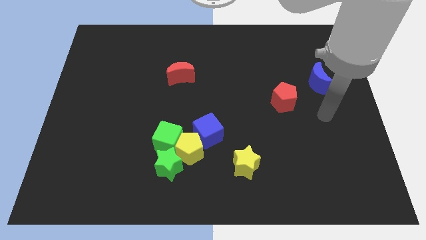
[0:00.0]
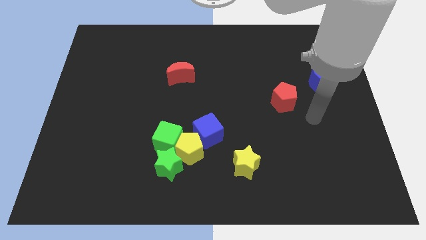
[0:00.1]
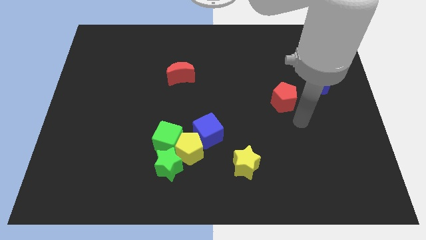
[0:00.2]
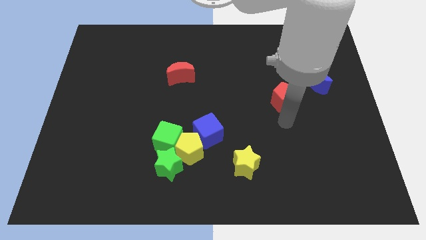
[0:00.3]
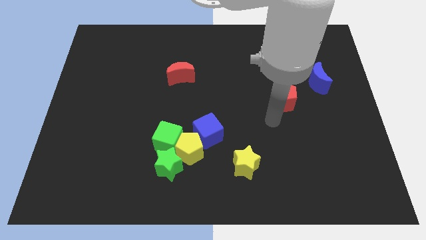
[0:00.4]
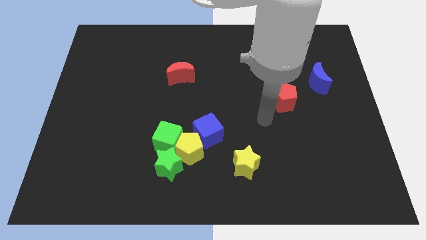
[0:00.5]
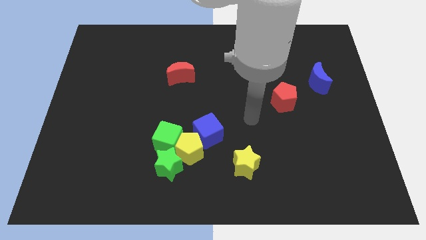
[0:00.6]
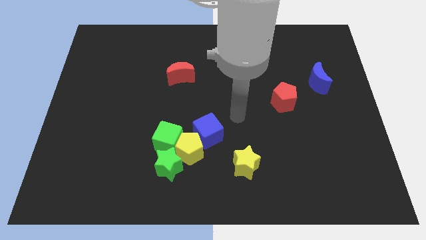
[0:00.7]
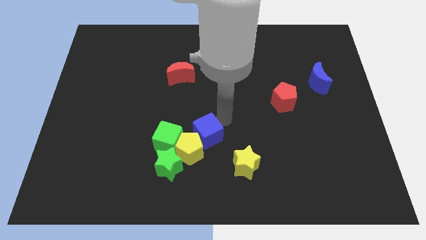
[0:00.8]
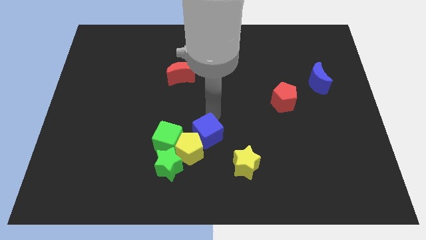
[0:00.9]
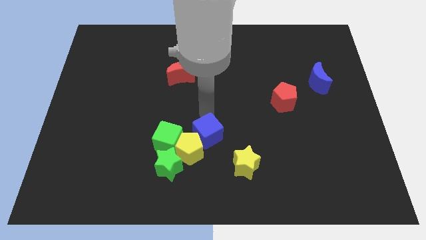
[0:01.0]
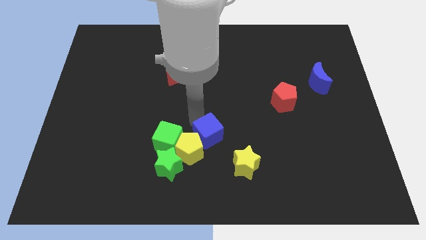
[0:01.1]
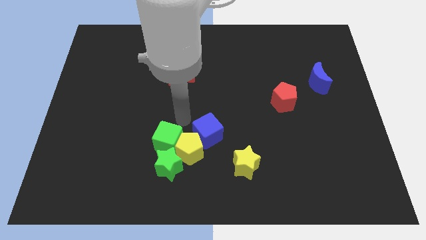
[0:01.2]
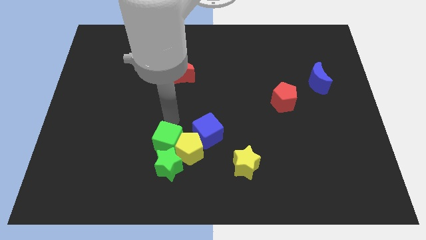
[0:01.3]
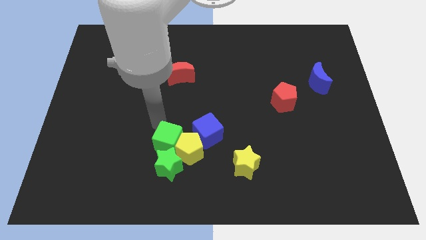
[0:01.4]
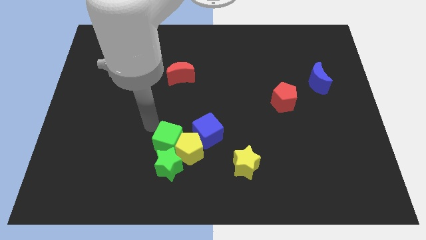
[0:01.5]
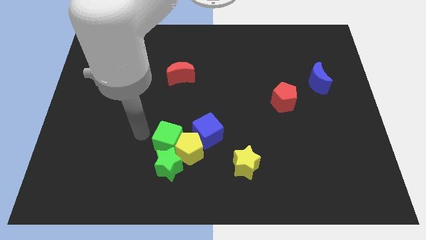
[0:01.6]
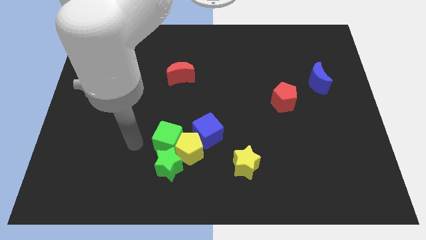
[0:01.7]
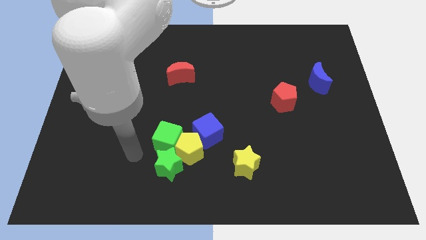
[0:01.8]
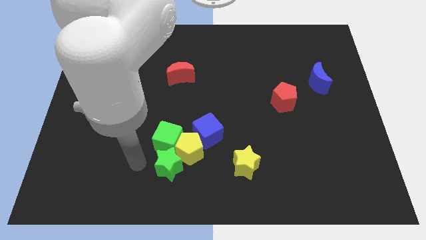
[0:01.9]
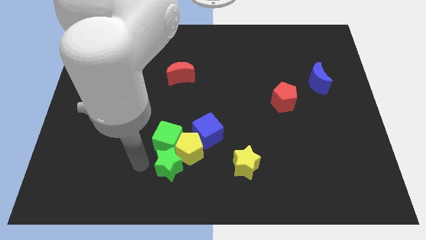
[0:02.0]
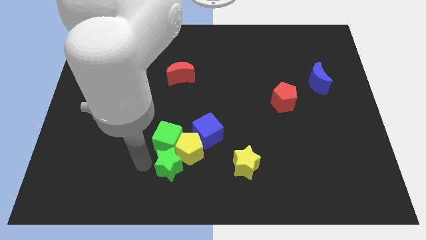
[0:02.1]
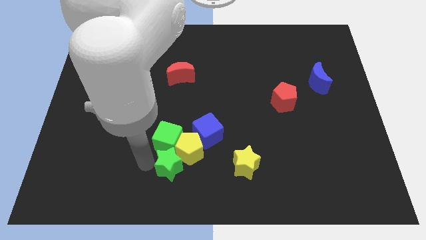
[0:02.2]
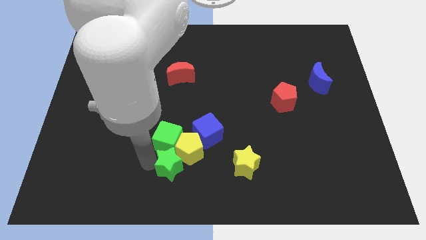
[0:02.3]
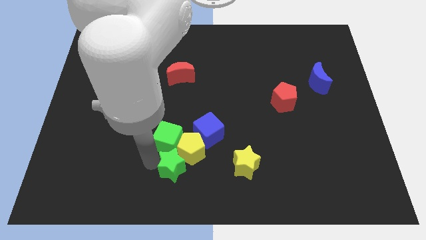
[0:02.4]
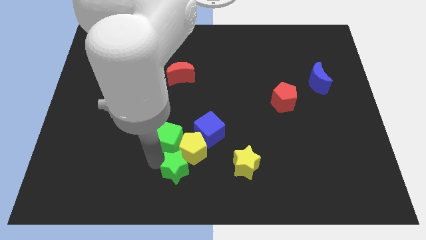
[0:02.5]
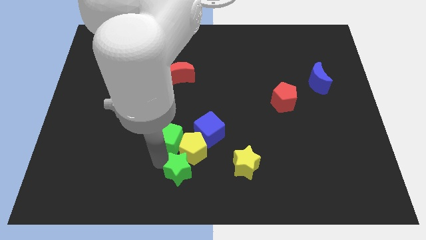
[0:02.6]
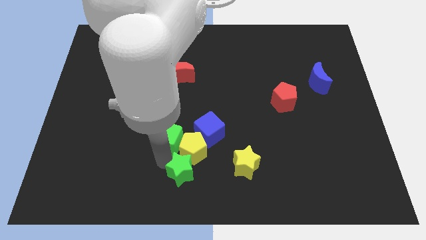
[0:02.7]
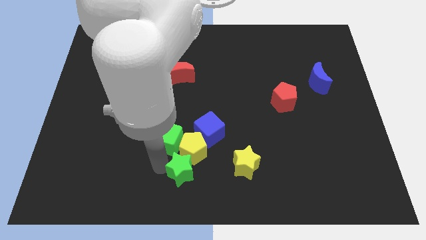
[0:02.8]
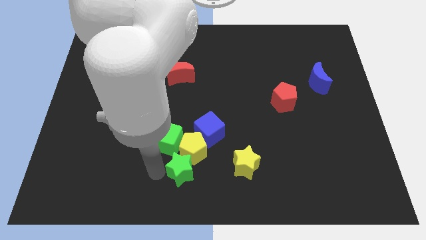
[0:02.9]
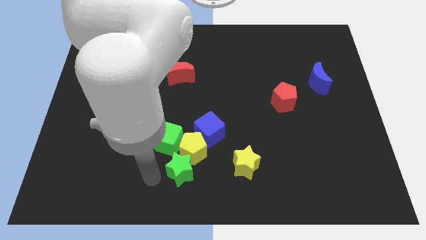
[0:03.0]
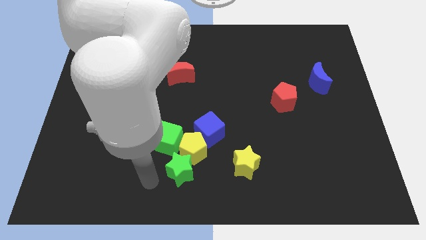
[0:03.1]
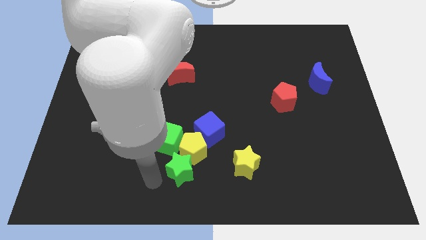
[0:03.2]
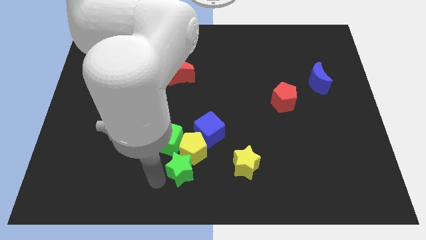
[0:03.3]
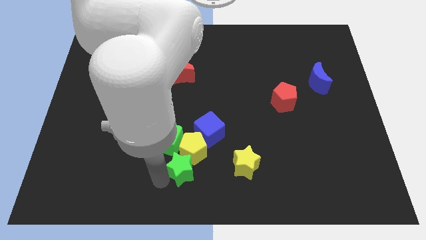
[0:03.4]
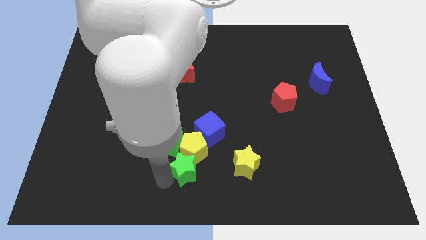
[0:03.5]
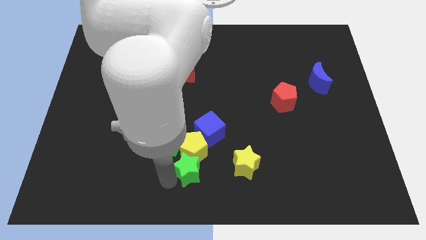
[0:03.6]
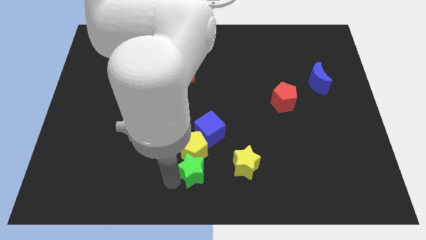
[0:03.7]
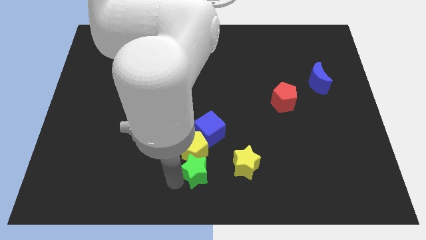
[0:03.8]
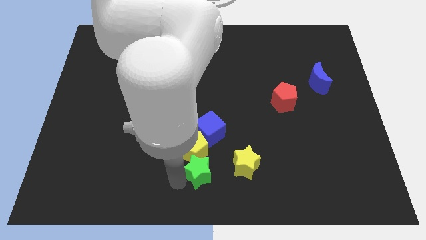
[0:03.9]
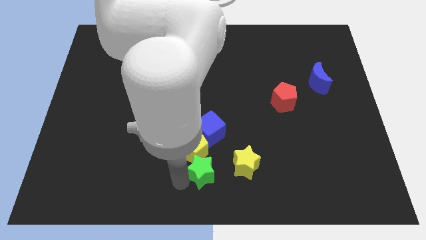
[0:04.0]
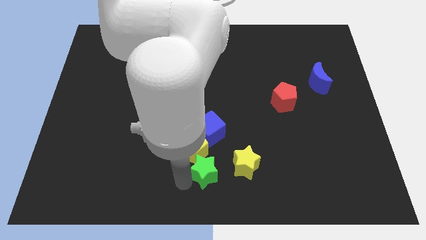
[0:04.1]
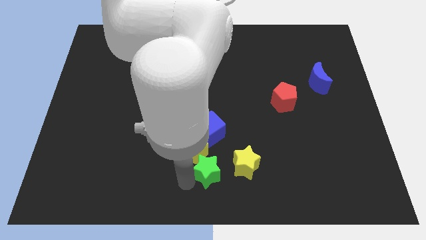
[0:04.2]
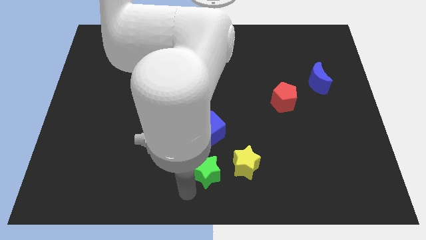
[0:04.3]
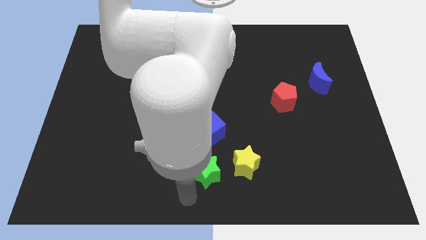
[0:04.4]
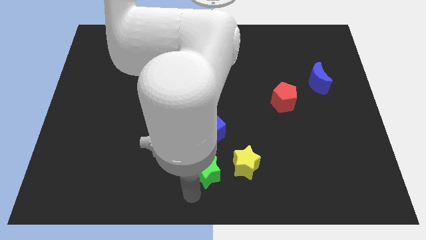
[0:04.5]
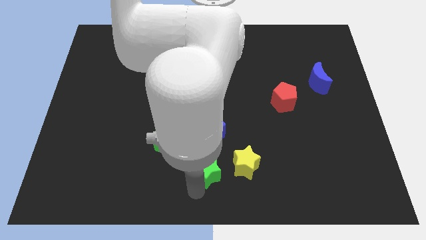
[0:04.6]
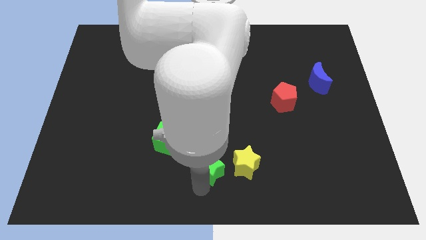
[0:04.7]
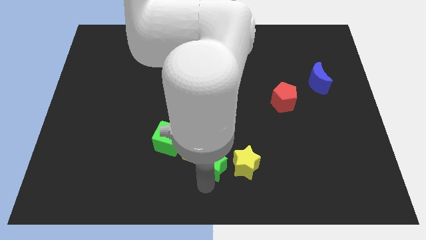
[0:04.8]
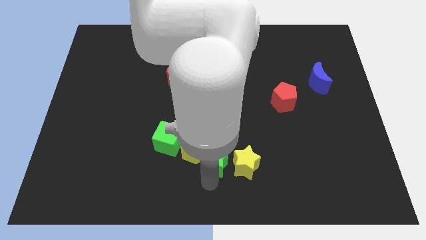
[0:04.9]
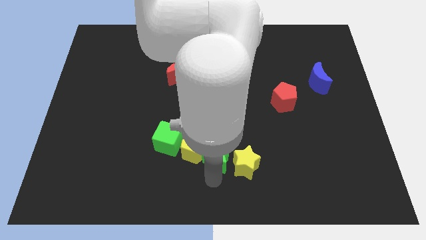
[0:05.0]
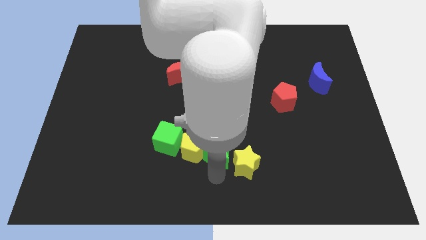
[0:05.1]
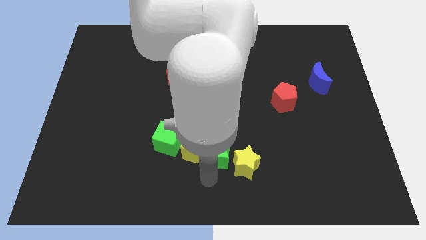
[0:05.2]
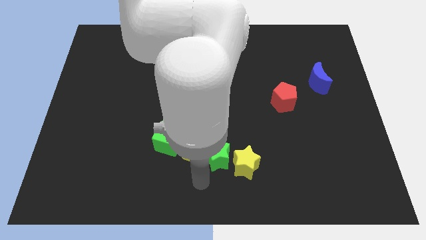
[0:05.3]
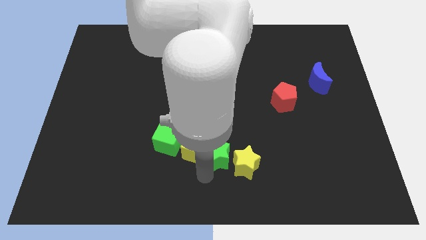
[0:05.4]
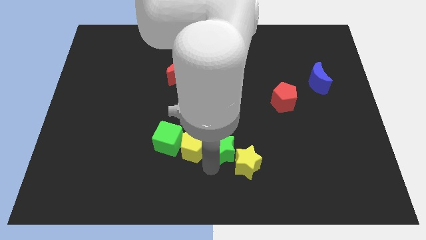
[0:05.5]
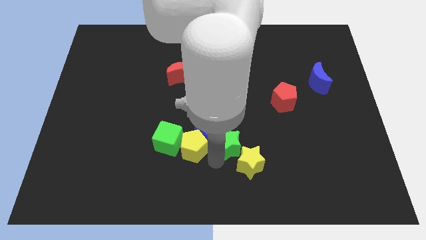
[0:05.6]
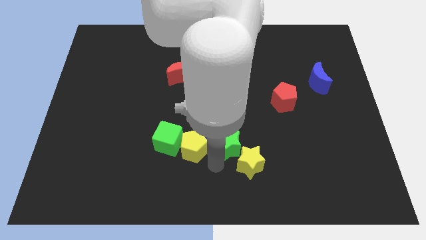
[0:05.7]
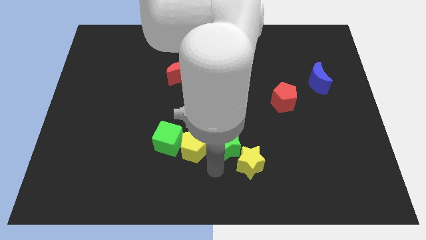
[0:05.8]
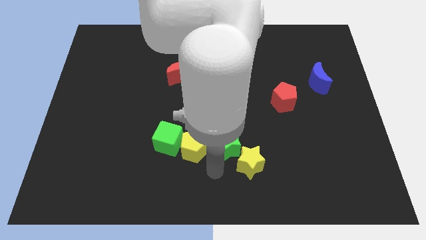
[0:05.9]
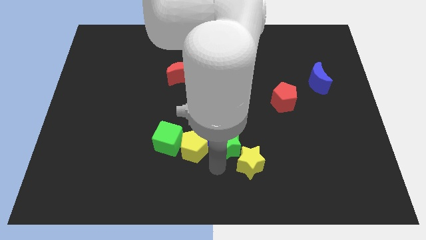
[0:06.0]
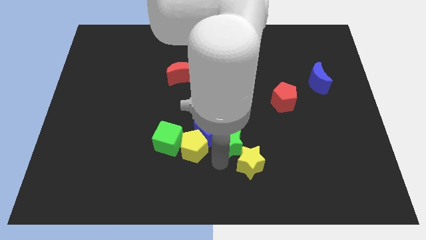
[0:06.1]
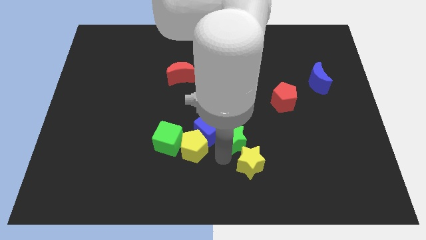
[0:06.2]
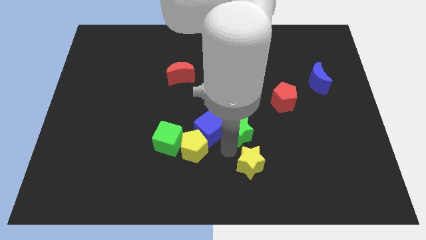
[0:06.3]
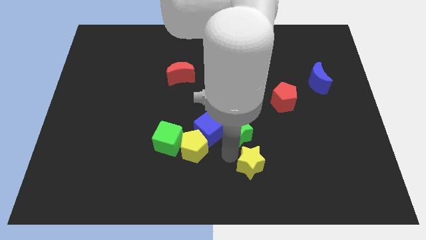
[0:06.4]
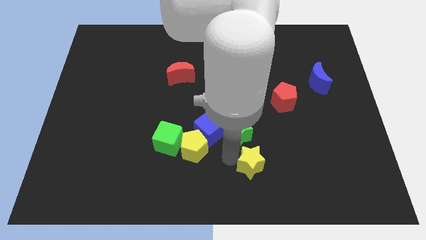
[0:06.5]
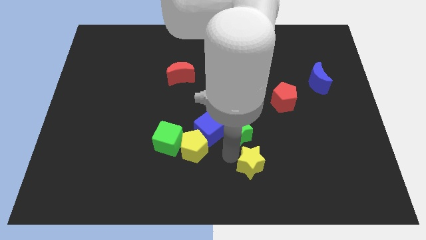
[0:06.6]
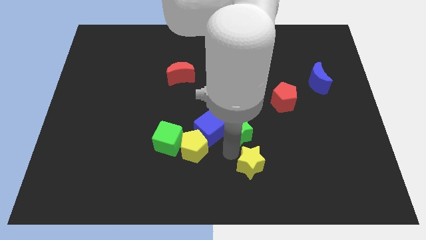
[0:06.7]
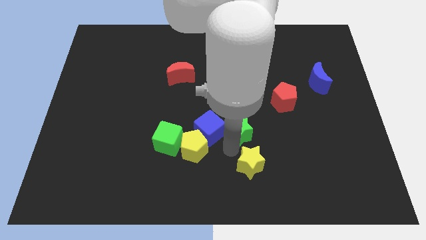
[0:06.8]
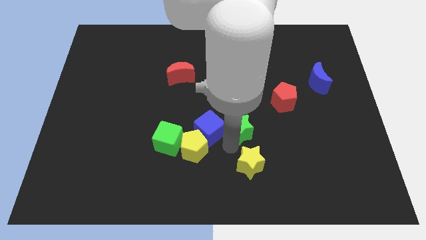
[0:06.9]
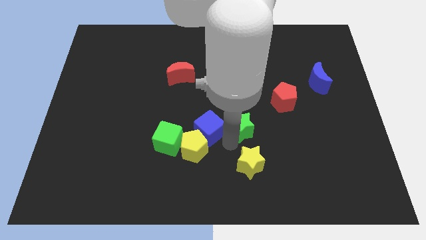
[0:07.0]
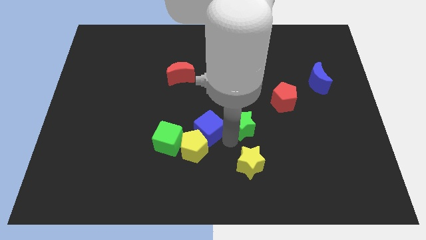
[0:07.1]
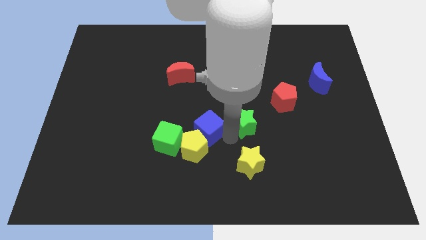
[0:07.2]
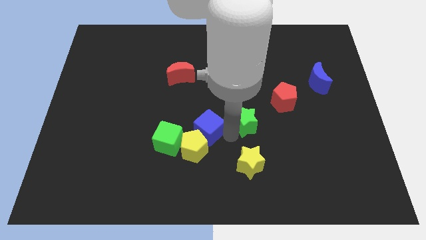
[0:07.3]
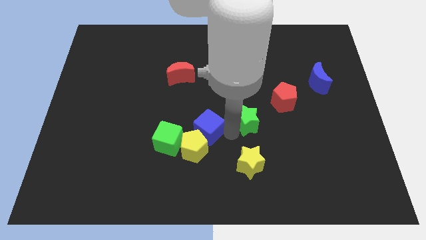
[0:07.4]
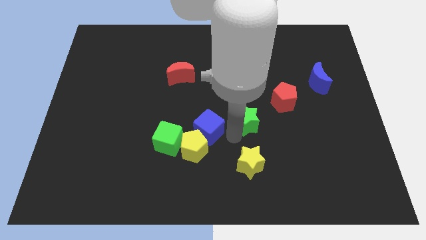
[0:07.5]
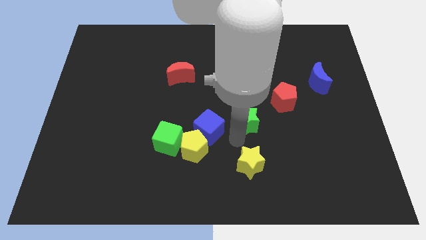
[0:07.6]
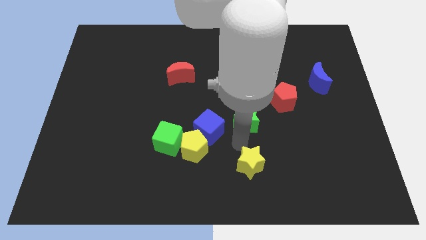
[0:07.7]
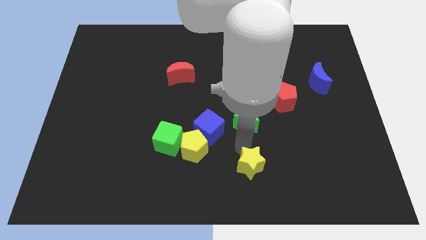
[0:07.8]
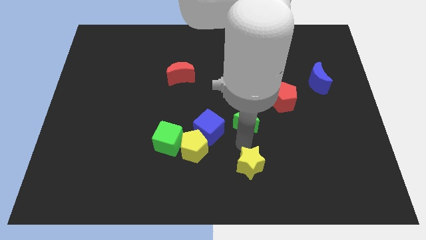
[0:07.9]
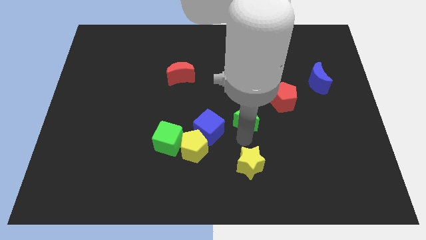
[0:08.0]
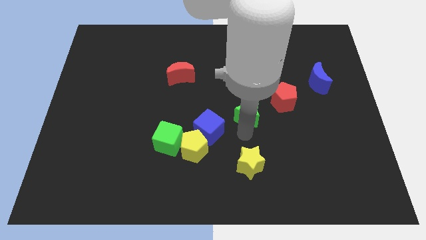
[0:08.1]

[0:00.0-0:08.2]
slide the green star upwards and right

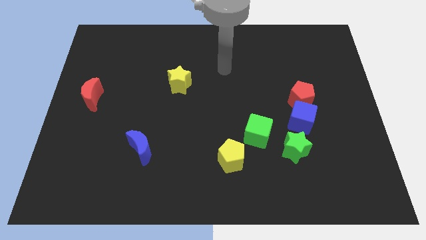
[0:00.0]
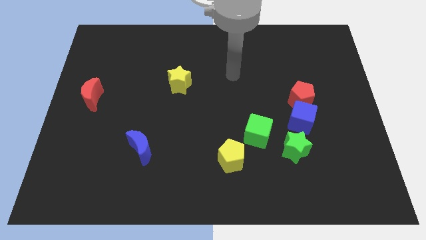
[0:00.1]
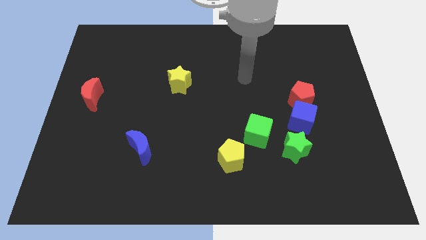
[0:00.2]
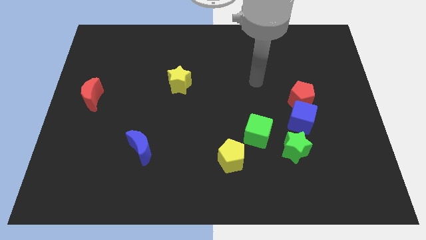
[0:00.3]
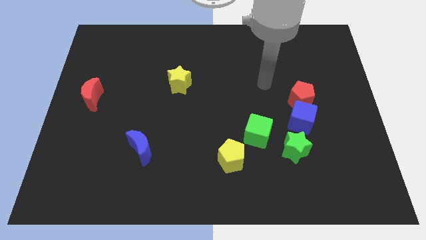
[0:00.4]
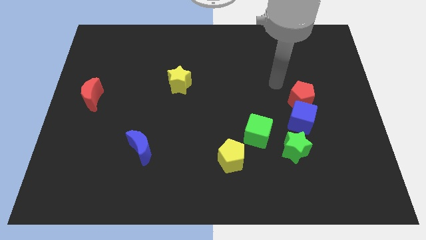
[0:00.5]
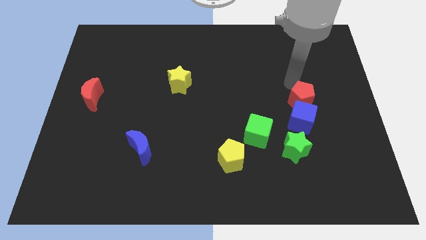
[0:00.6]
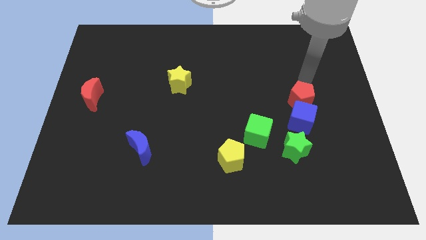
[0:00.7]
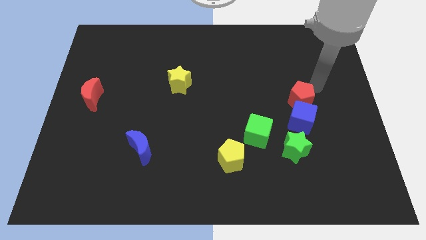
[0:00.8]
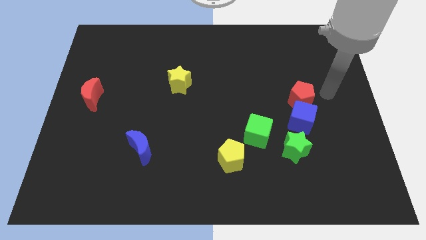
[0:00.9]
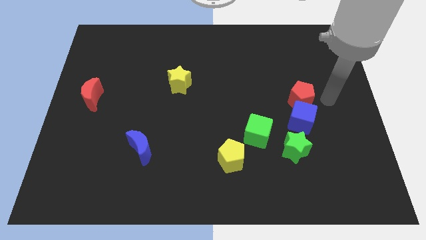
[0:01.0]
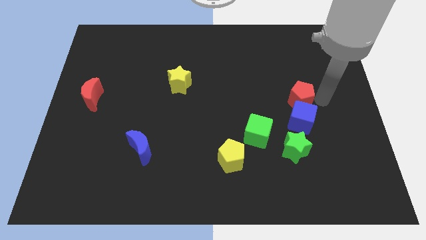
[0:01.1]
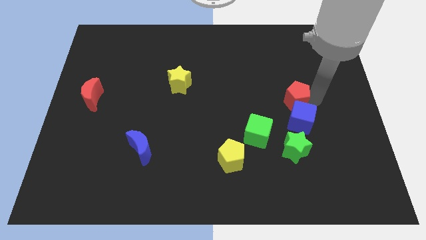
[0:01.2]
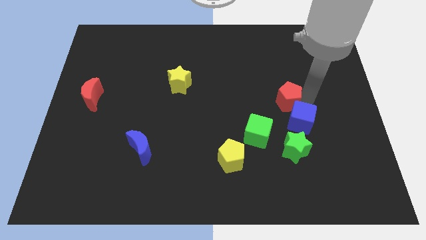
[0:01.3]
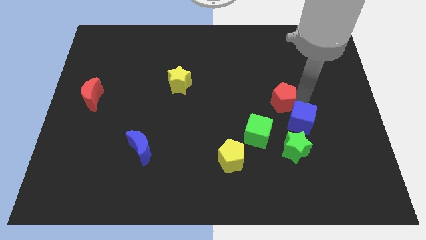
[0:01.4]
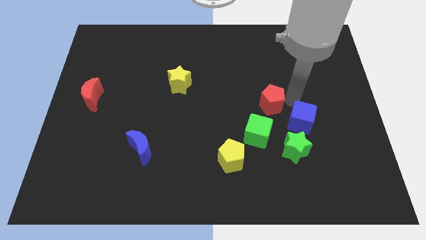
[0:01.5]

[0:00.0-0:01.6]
push the red pentagon slightly left
